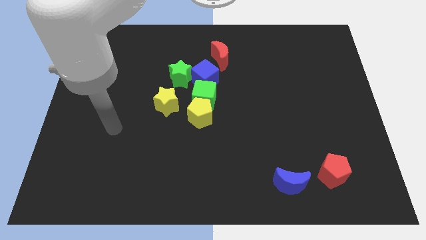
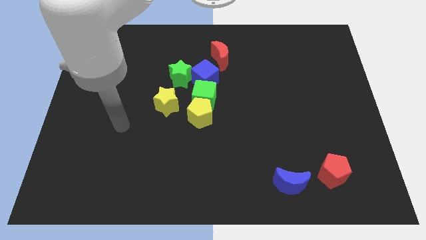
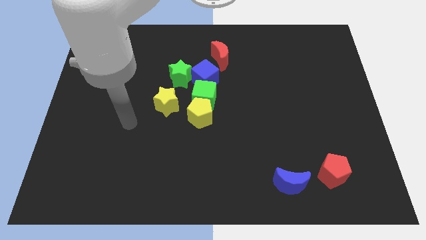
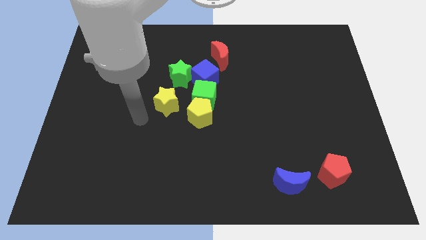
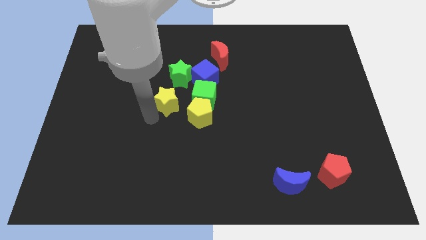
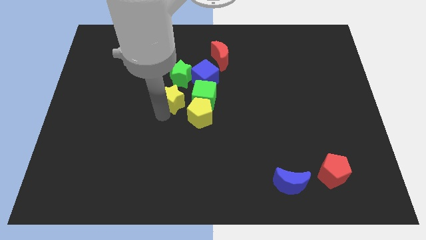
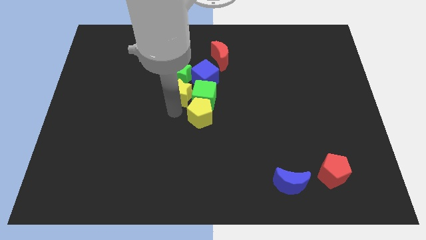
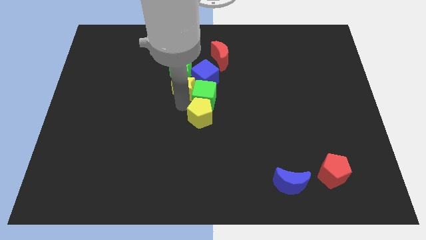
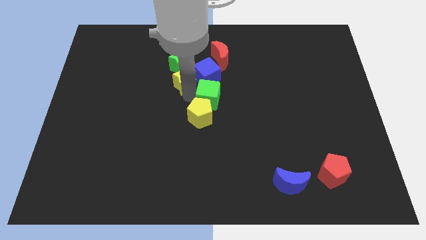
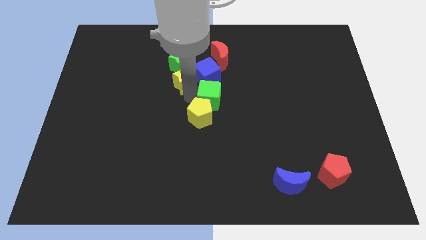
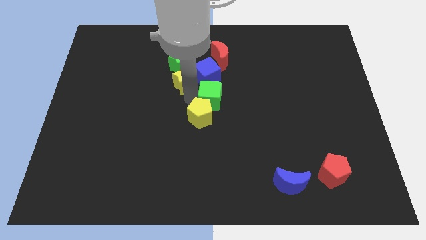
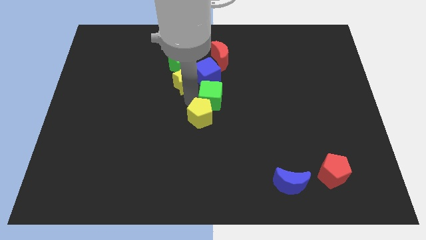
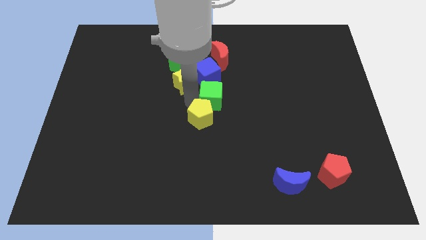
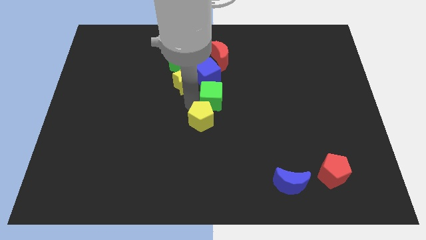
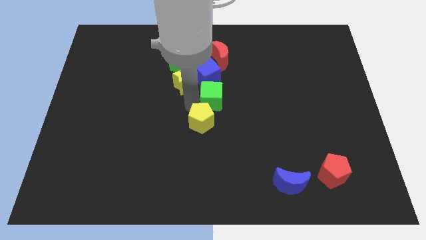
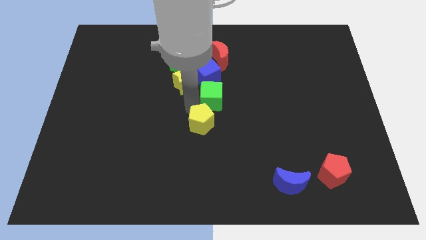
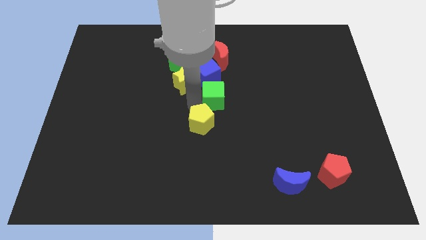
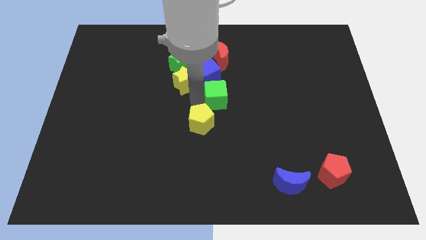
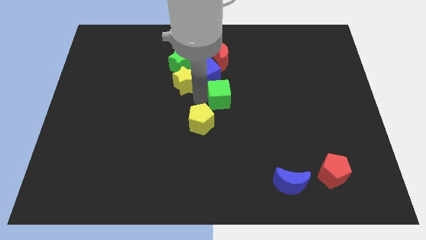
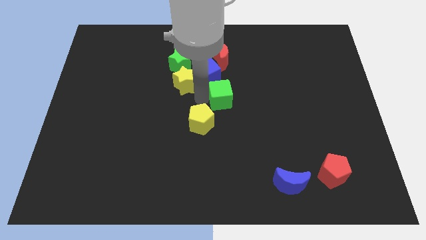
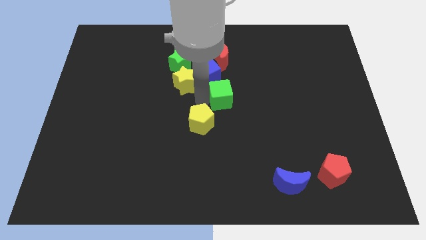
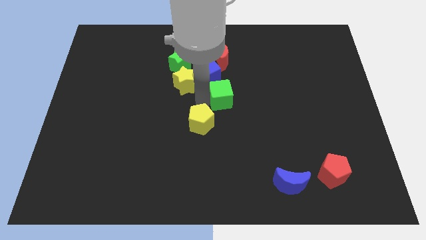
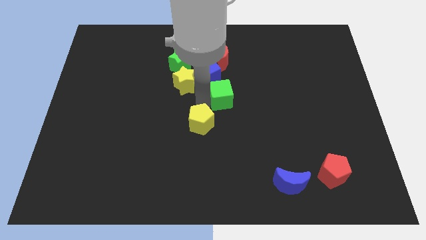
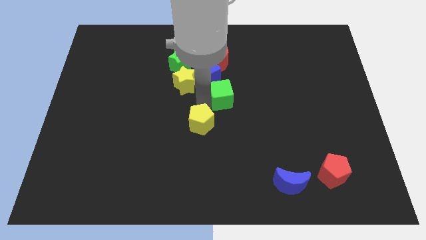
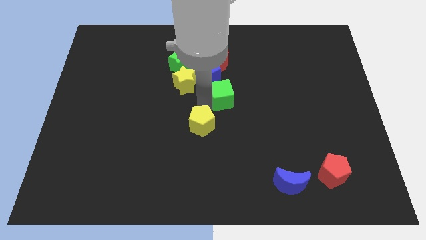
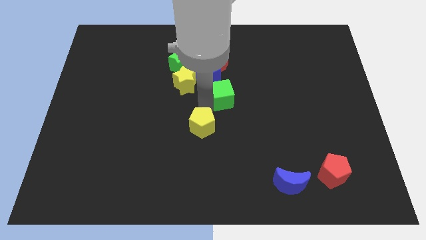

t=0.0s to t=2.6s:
pull the yellow pentagon apart from the green cube and yellow star

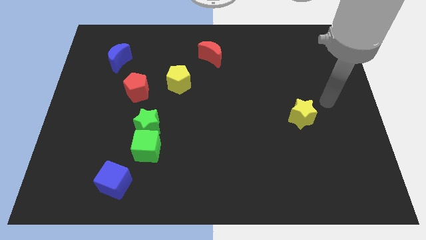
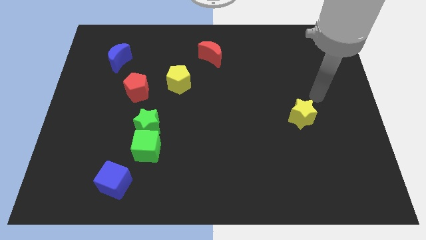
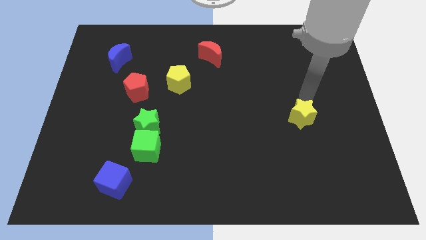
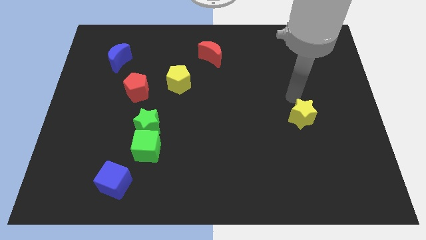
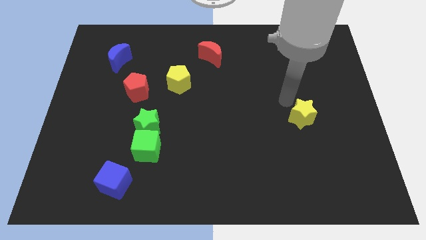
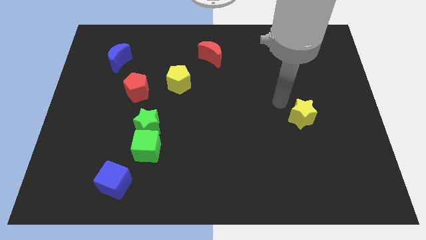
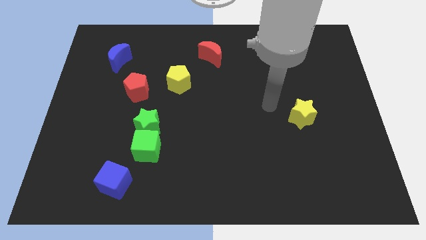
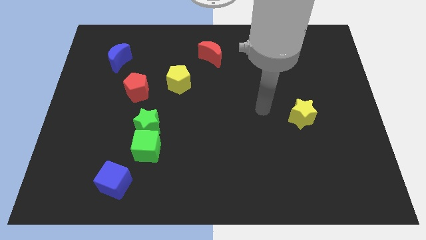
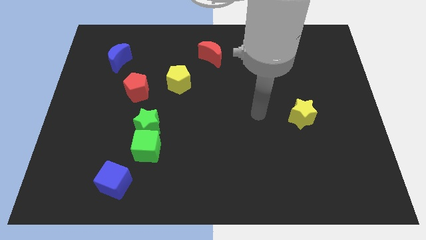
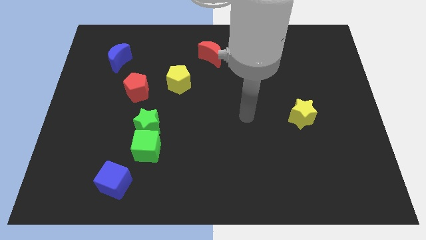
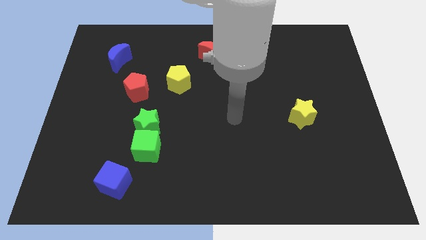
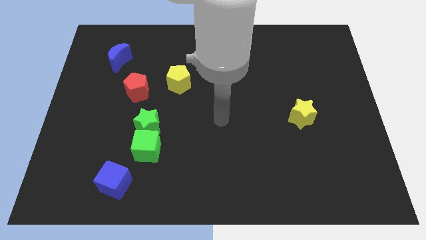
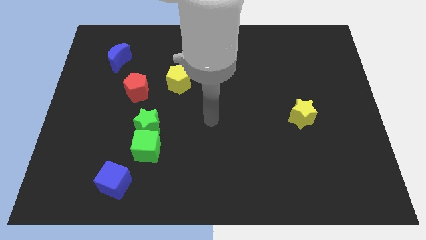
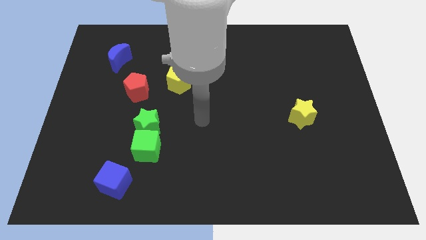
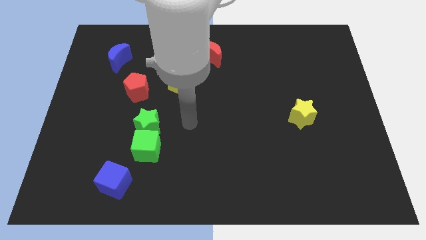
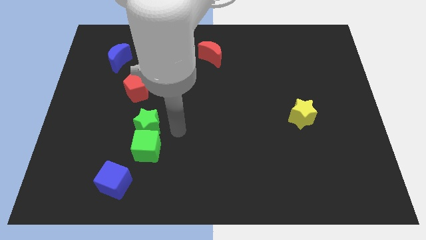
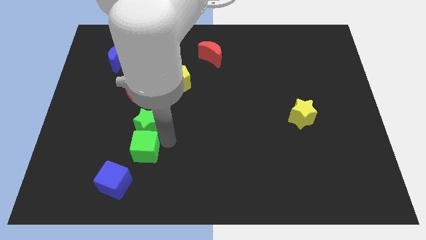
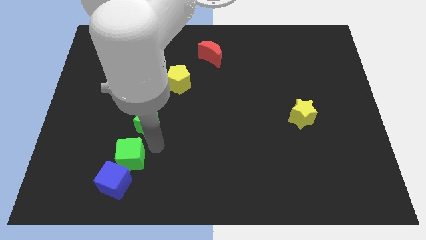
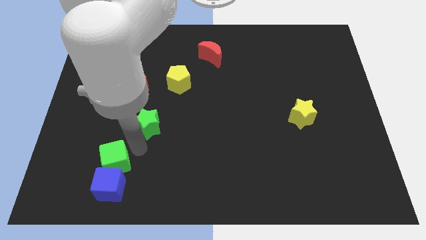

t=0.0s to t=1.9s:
move the green star away from the green cube

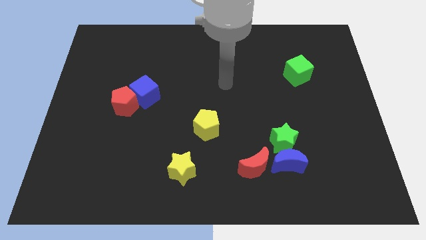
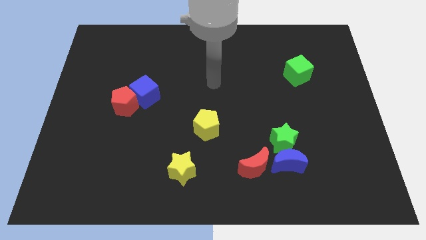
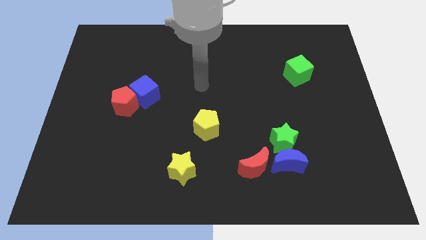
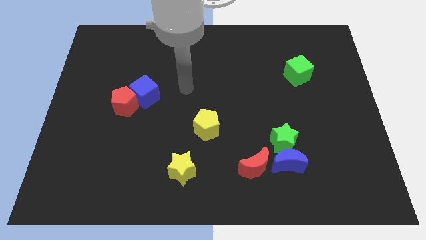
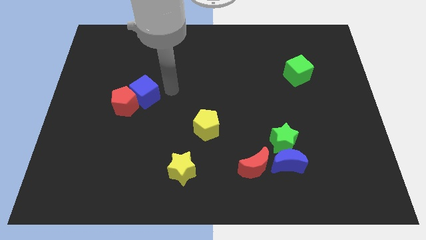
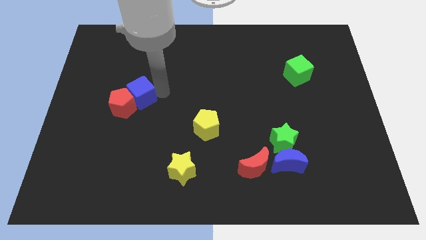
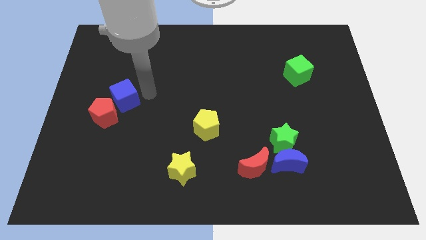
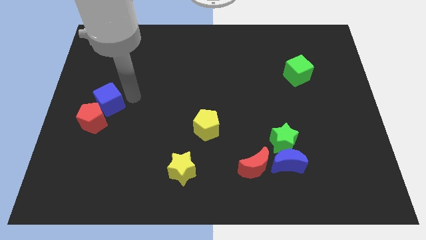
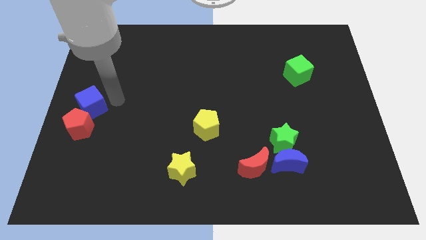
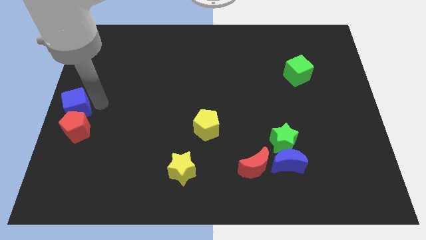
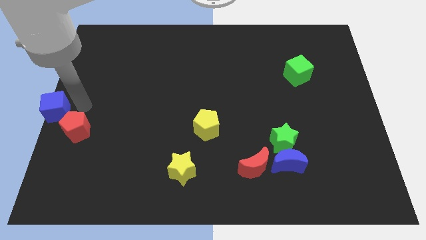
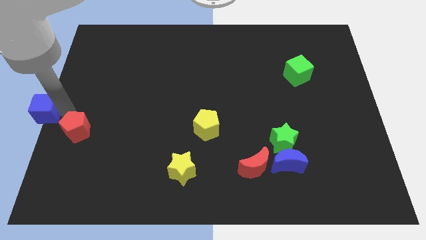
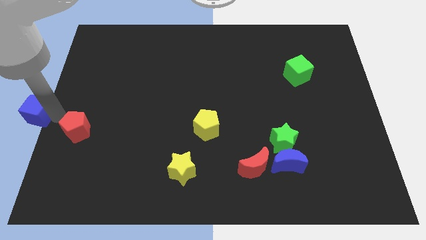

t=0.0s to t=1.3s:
separate the red pentagon from the blue cube

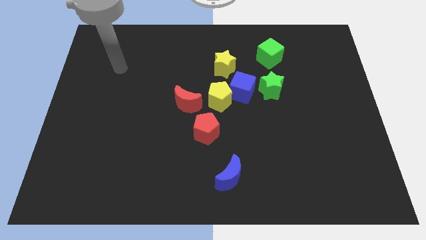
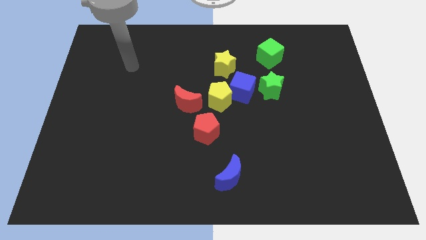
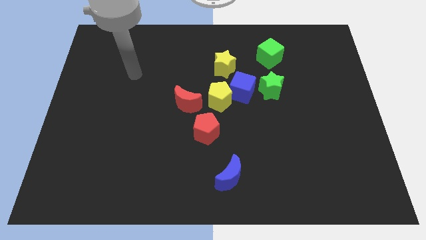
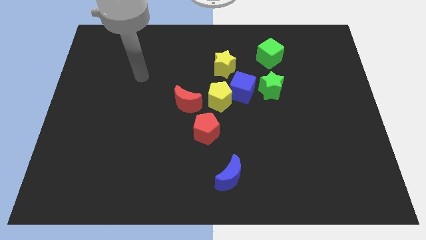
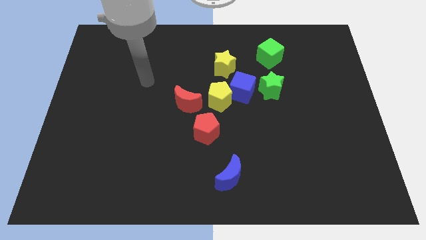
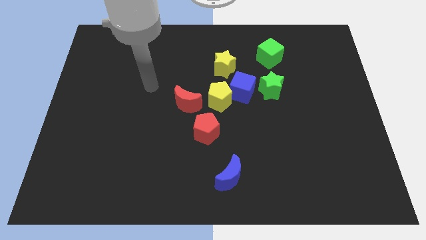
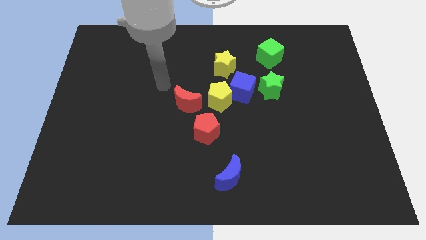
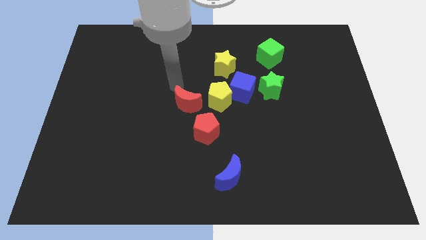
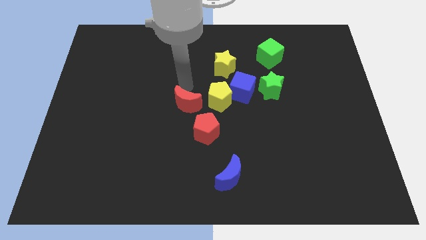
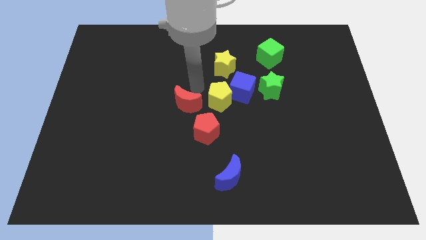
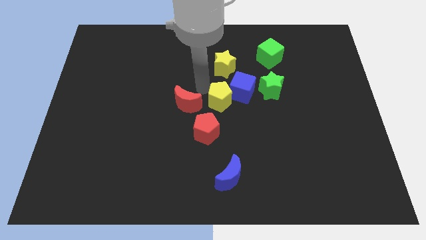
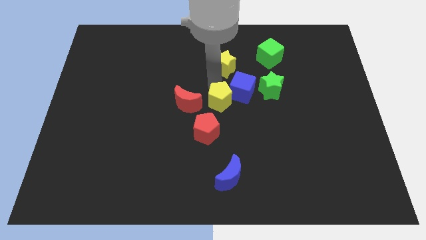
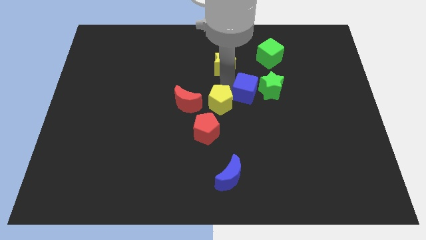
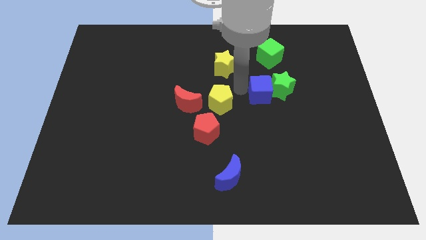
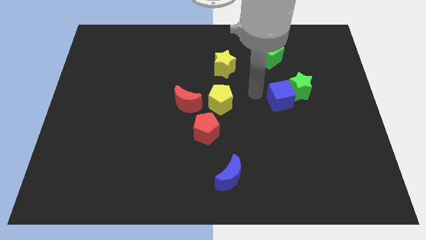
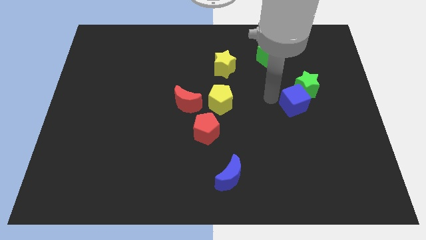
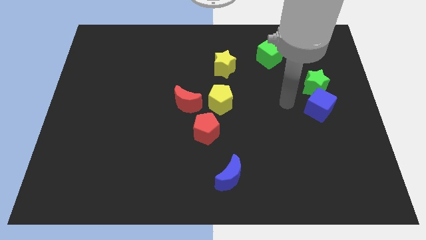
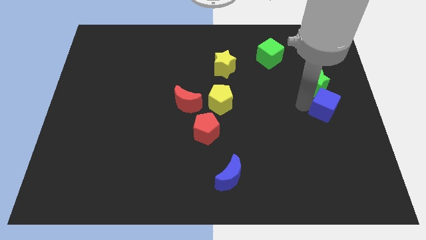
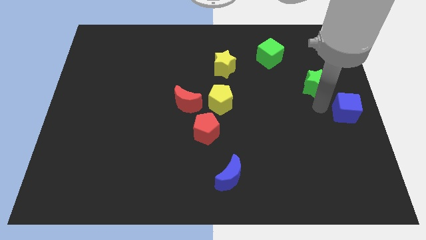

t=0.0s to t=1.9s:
pull the green star apart from the blue cube

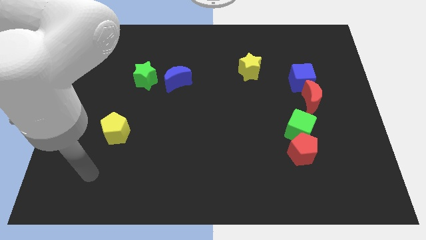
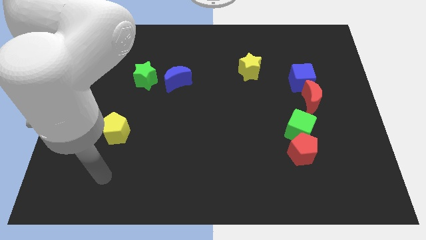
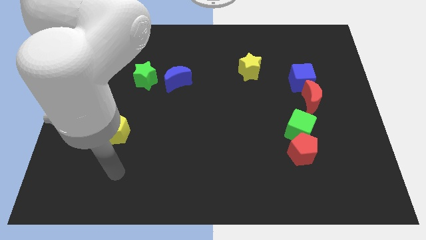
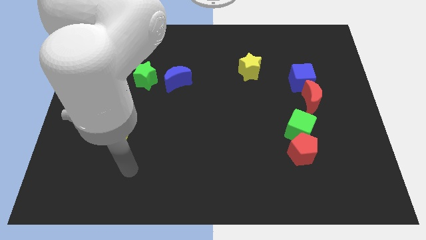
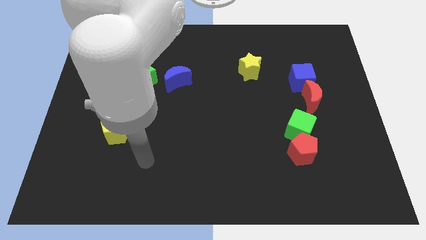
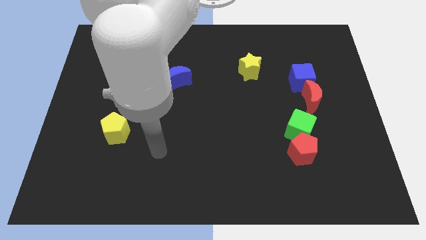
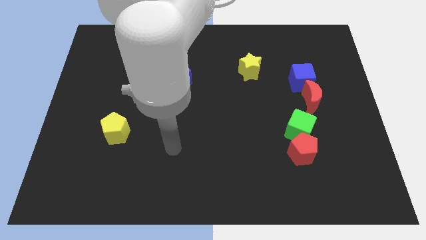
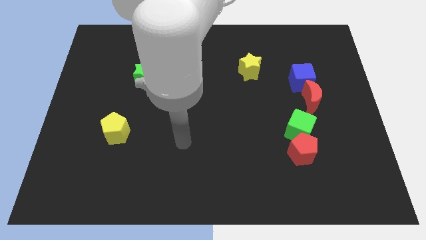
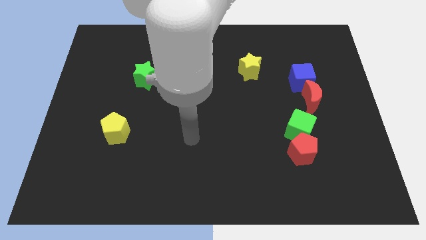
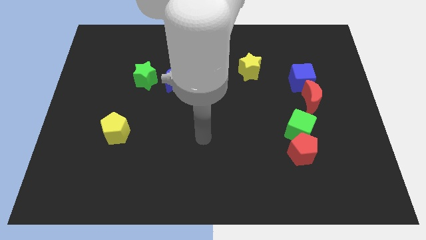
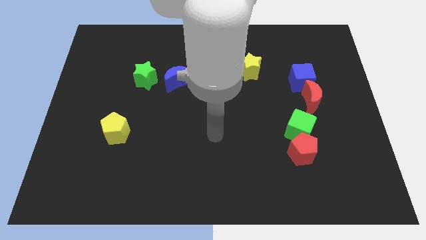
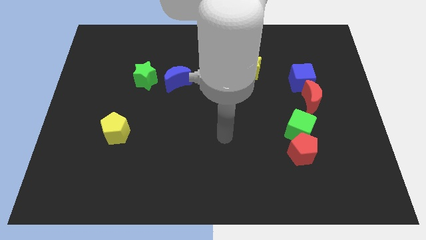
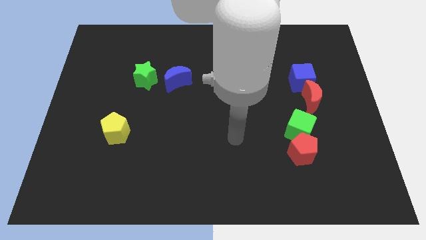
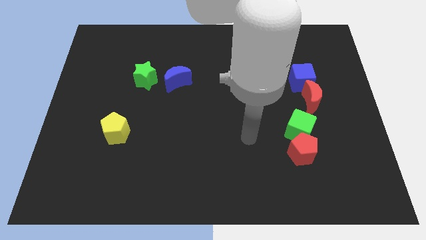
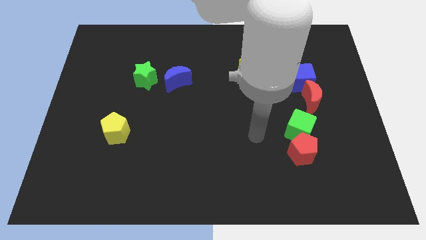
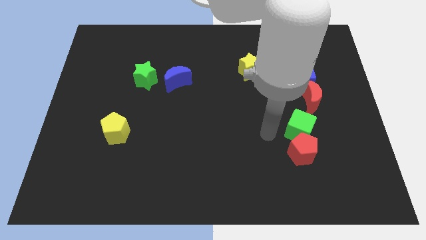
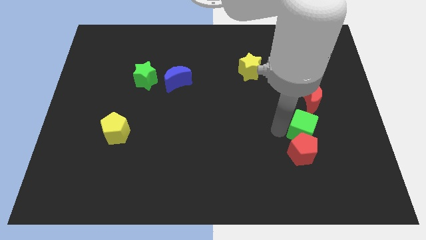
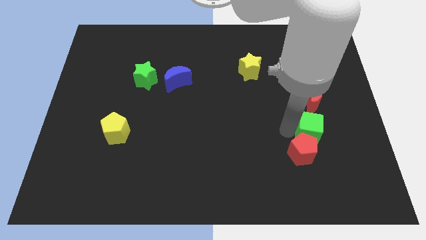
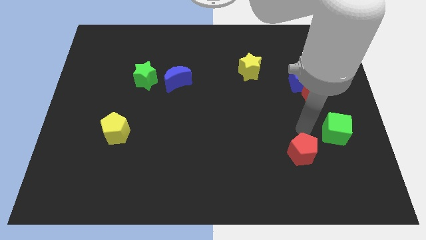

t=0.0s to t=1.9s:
separate the red pentagon from the green cube
